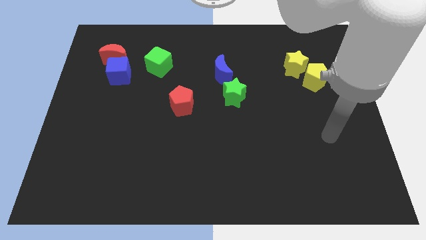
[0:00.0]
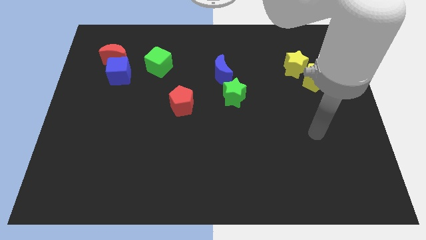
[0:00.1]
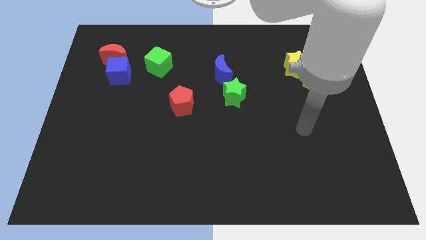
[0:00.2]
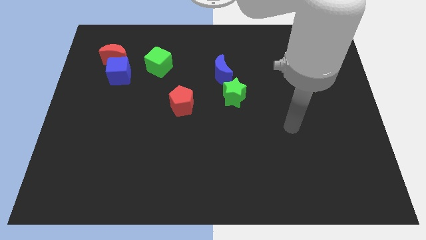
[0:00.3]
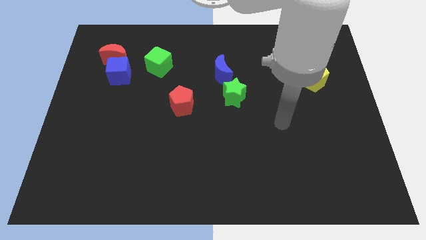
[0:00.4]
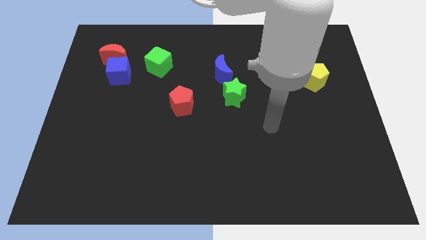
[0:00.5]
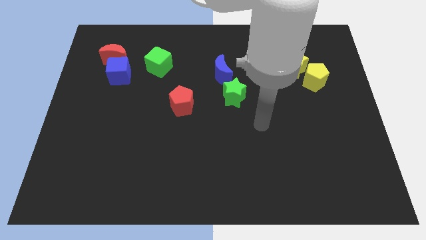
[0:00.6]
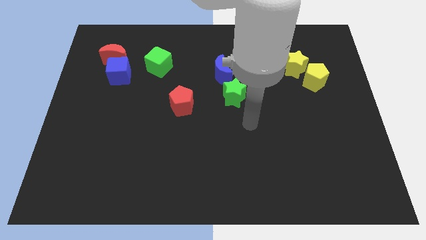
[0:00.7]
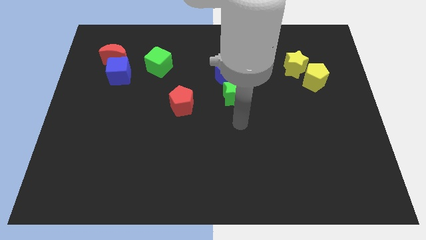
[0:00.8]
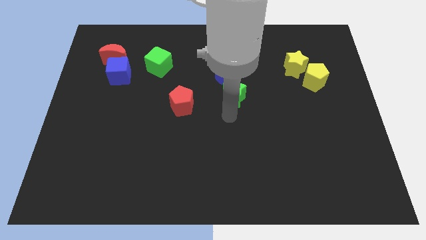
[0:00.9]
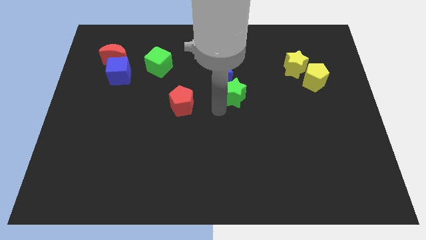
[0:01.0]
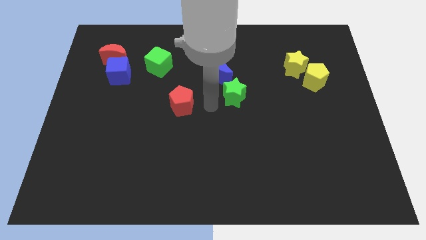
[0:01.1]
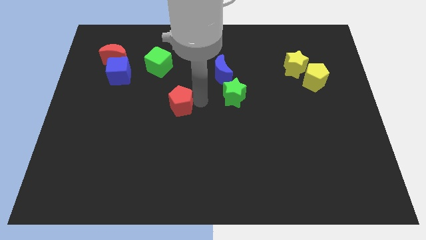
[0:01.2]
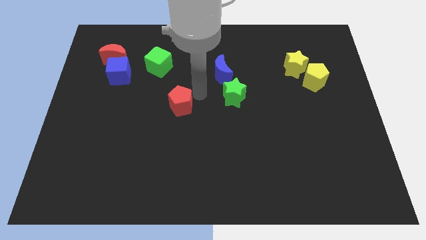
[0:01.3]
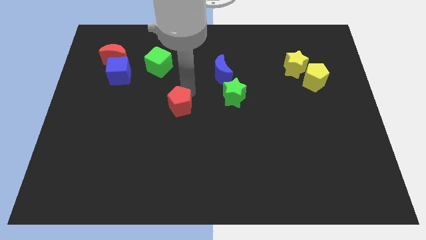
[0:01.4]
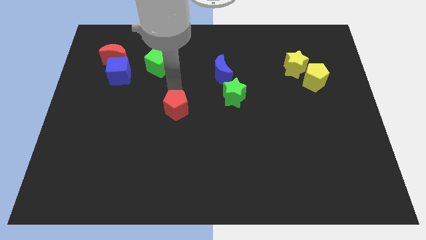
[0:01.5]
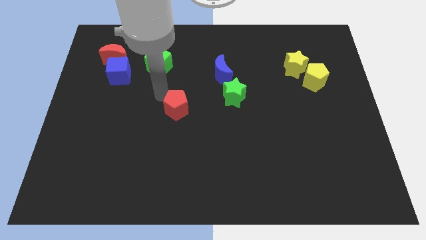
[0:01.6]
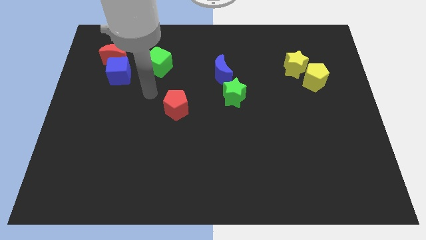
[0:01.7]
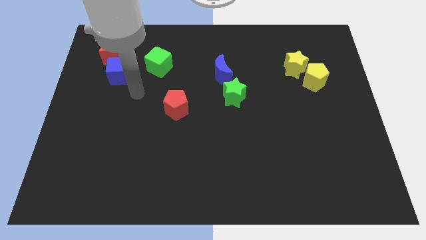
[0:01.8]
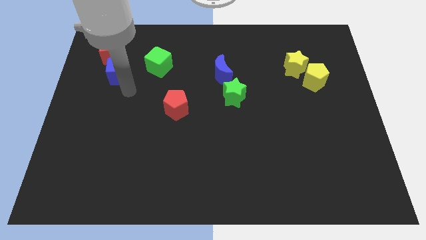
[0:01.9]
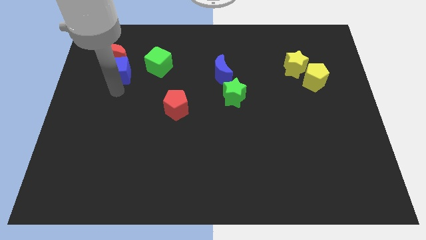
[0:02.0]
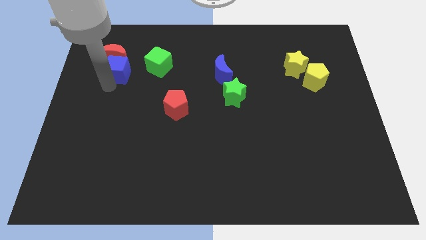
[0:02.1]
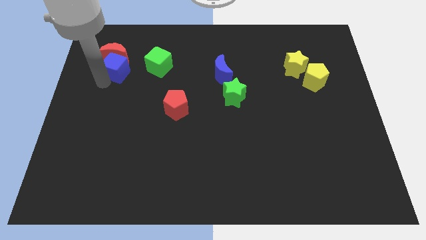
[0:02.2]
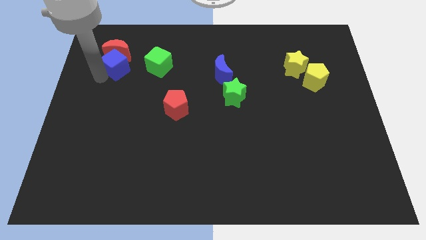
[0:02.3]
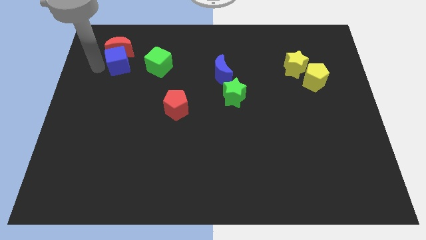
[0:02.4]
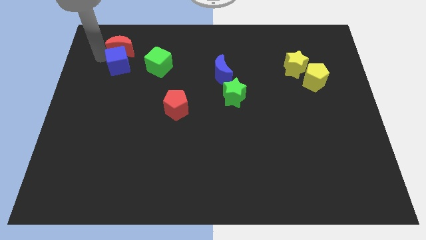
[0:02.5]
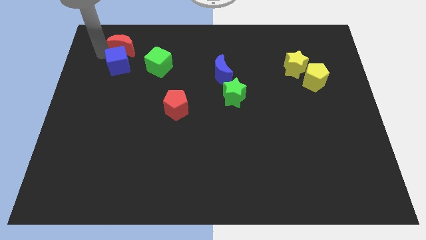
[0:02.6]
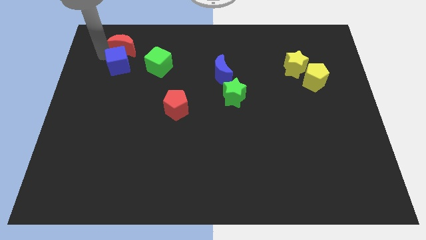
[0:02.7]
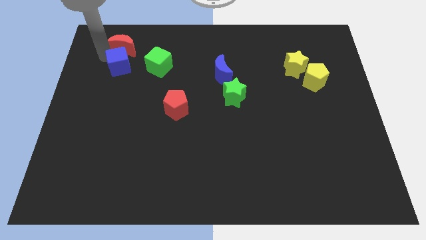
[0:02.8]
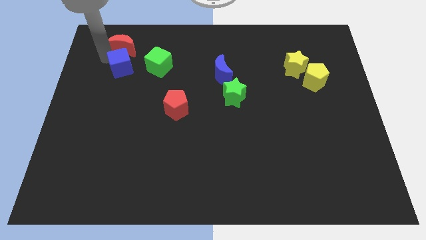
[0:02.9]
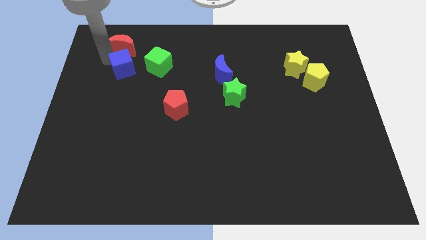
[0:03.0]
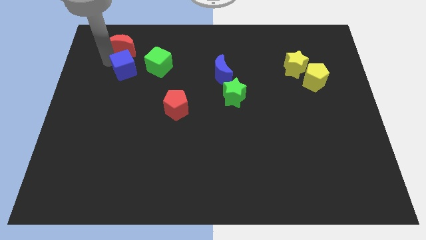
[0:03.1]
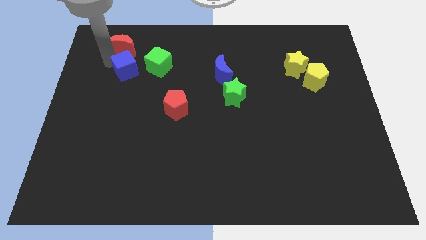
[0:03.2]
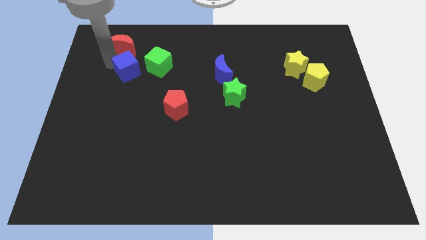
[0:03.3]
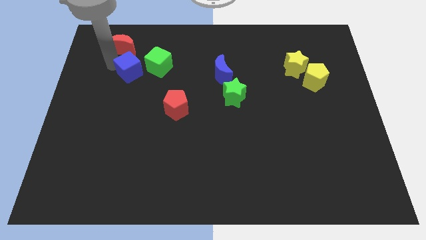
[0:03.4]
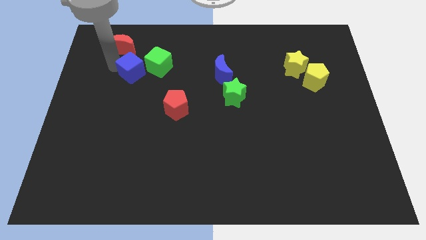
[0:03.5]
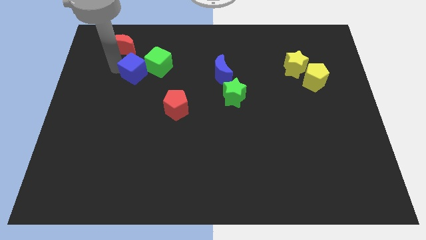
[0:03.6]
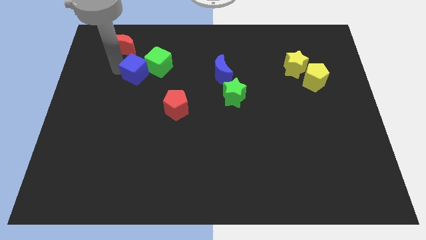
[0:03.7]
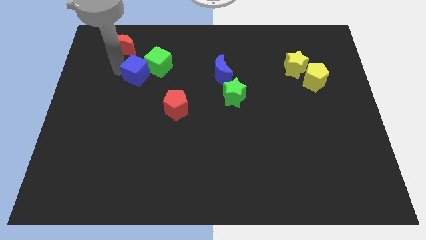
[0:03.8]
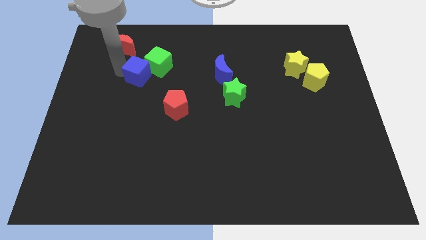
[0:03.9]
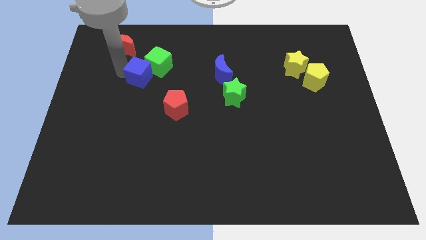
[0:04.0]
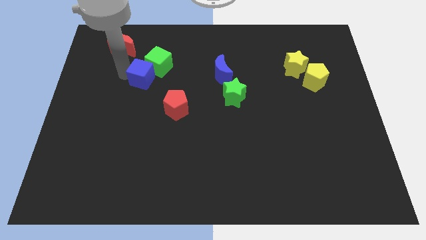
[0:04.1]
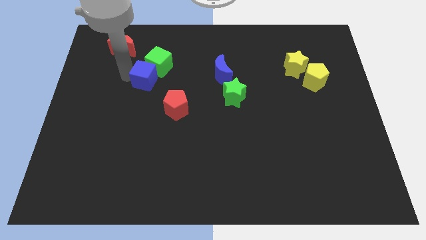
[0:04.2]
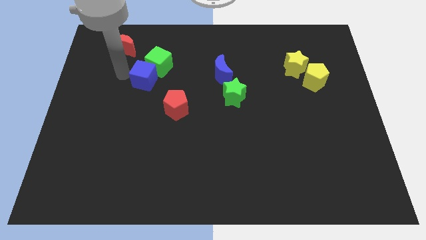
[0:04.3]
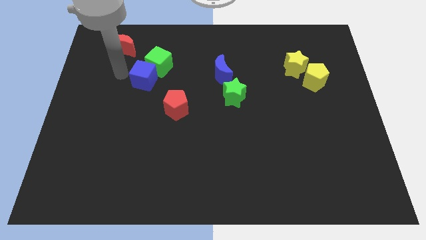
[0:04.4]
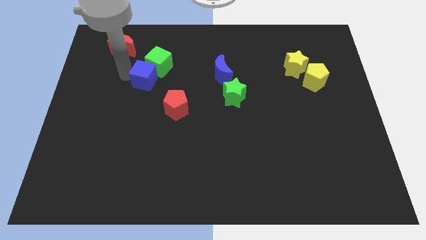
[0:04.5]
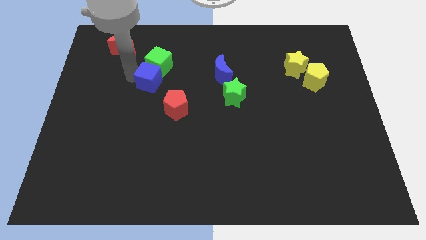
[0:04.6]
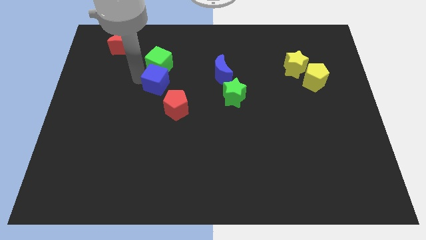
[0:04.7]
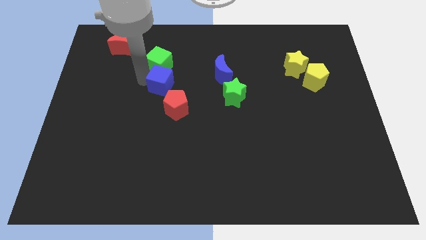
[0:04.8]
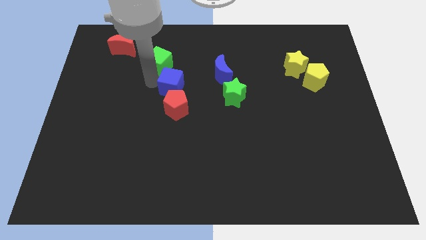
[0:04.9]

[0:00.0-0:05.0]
push the blue cube to the middle

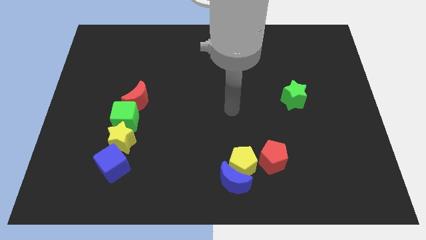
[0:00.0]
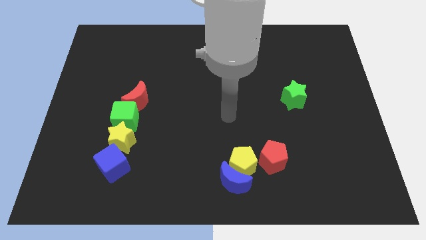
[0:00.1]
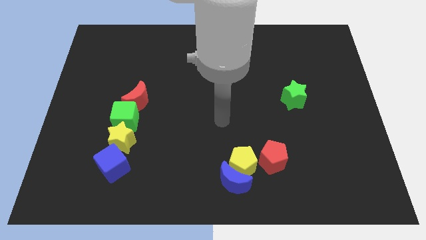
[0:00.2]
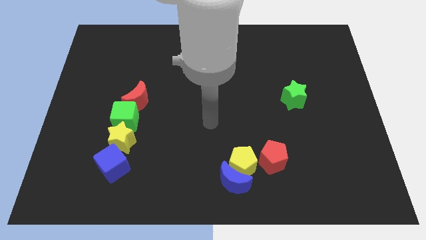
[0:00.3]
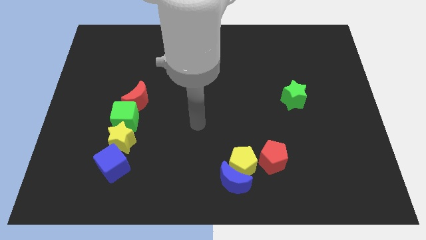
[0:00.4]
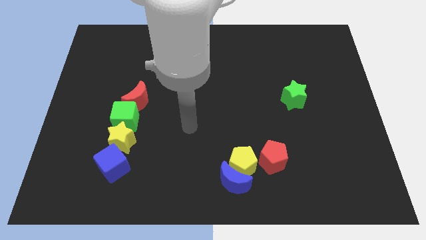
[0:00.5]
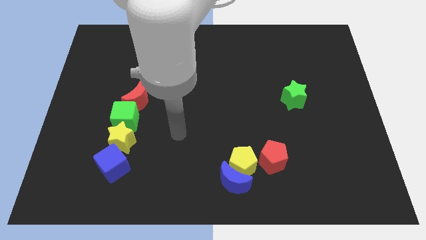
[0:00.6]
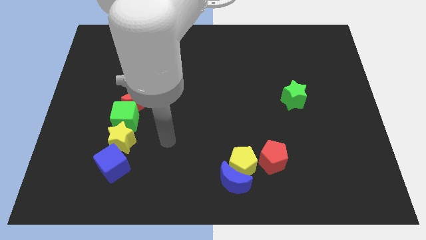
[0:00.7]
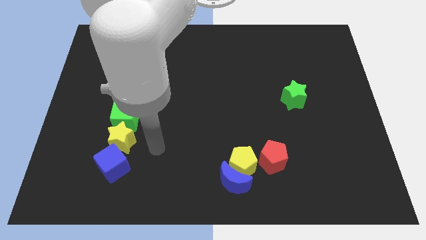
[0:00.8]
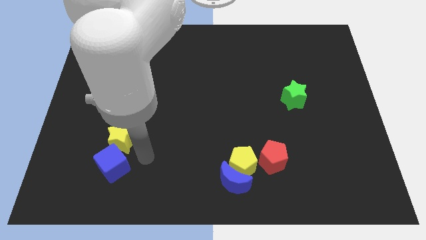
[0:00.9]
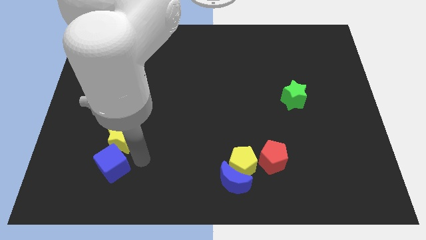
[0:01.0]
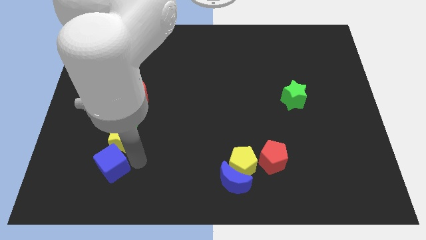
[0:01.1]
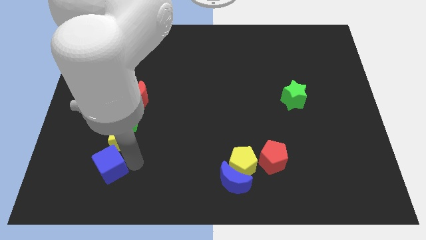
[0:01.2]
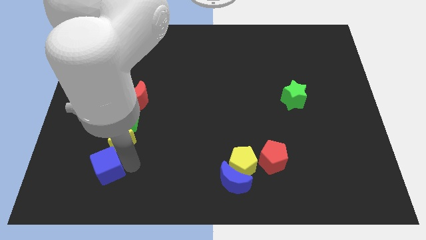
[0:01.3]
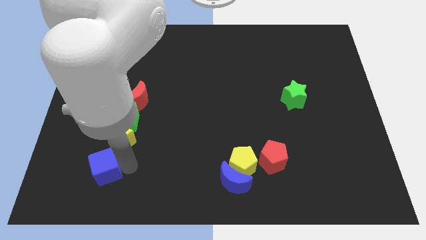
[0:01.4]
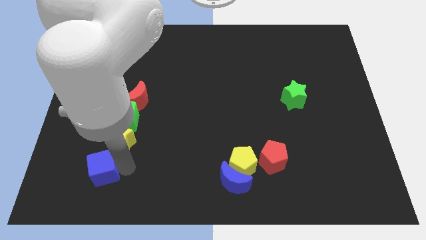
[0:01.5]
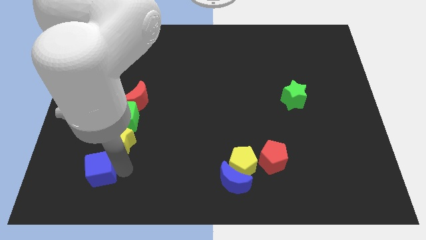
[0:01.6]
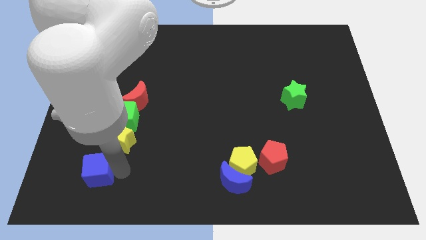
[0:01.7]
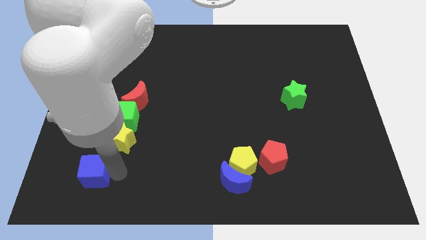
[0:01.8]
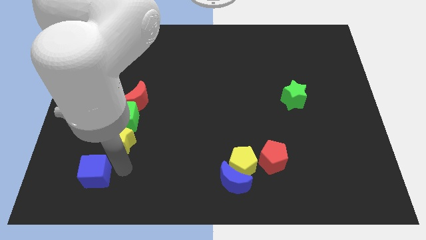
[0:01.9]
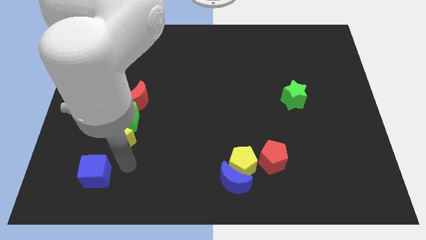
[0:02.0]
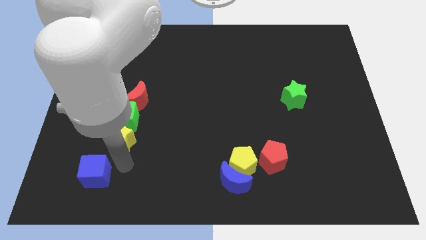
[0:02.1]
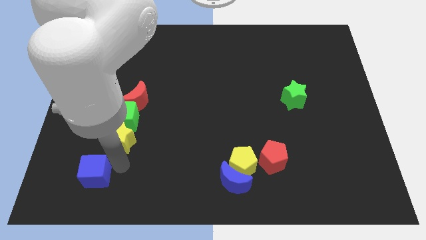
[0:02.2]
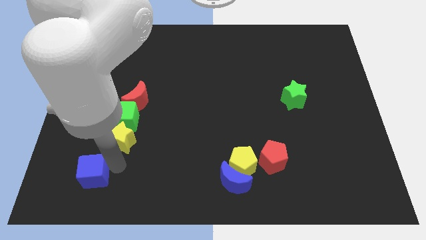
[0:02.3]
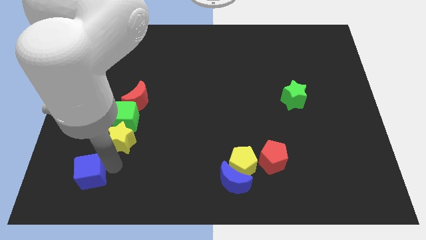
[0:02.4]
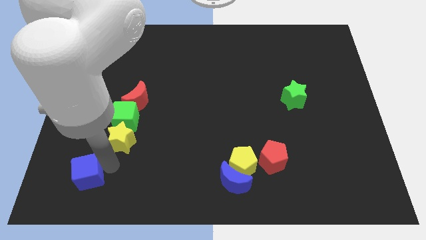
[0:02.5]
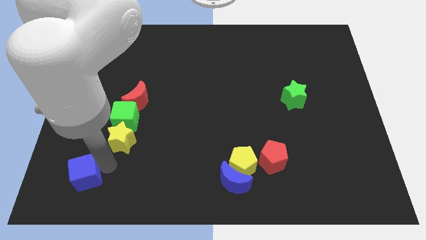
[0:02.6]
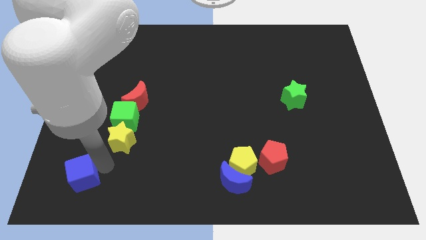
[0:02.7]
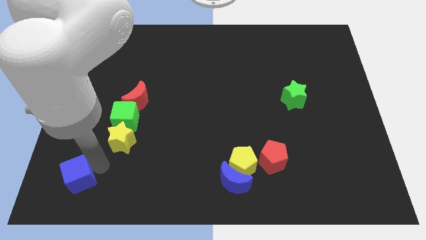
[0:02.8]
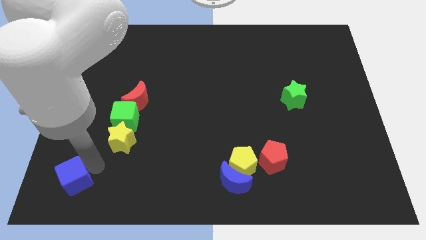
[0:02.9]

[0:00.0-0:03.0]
put the blue cube to the lower left corner
